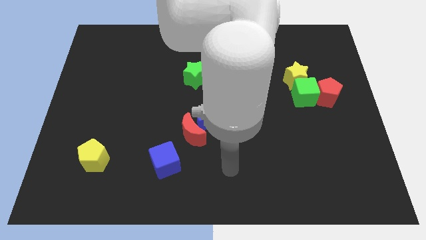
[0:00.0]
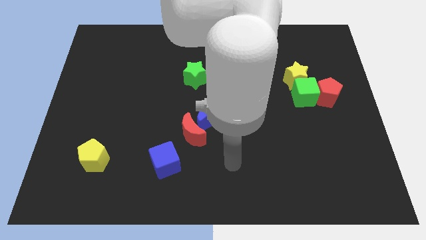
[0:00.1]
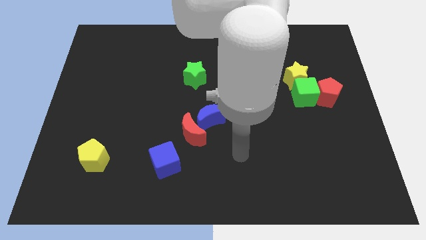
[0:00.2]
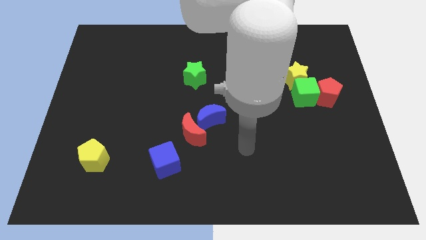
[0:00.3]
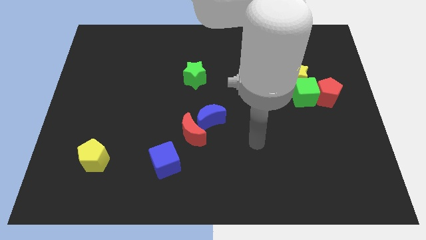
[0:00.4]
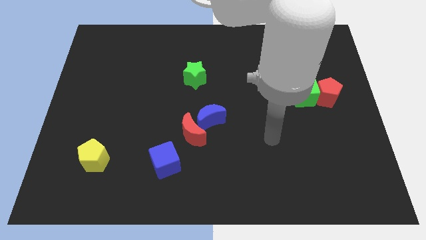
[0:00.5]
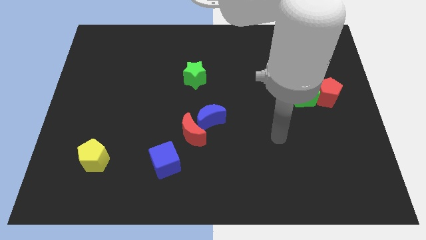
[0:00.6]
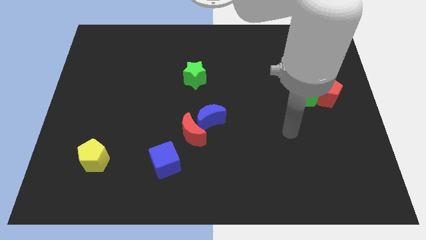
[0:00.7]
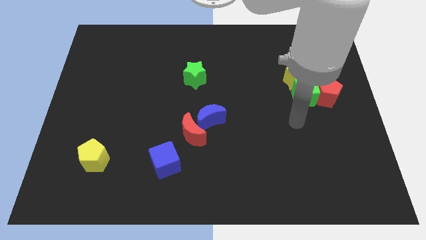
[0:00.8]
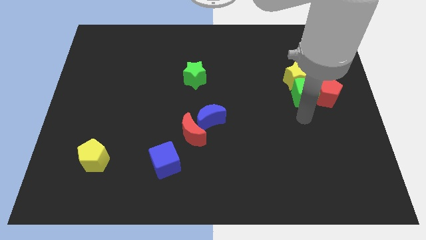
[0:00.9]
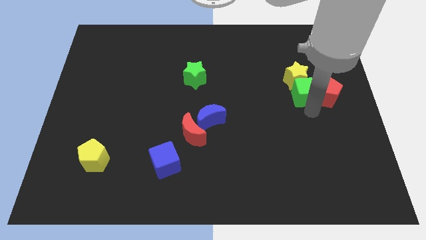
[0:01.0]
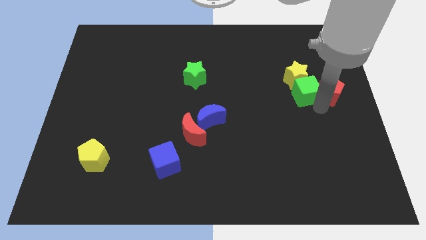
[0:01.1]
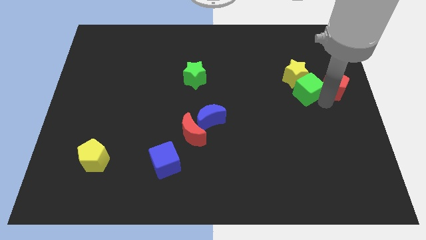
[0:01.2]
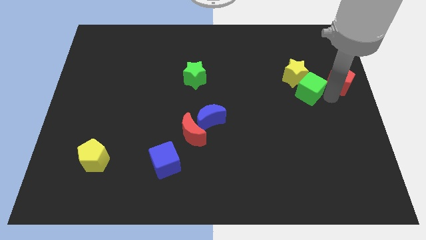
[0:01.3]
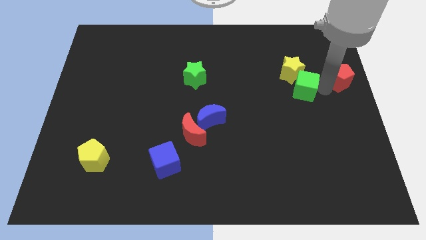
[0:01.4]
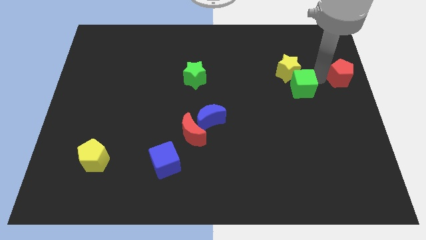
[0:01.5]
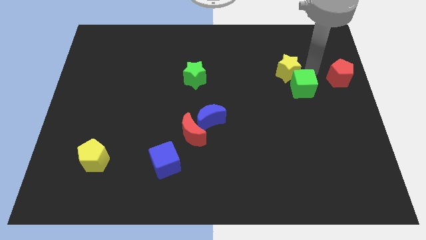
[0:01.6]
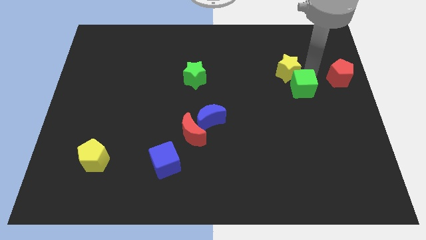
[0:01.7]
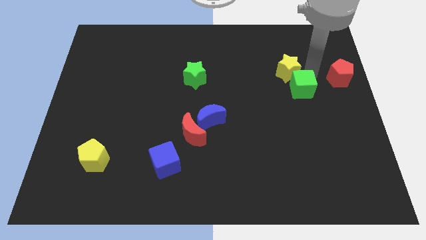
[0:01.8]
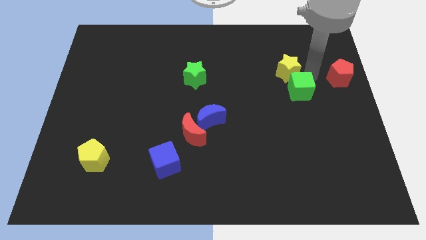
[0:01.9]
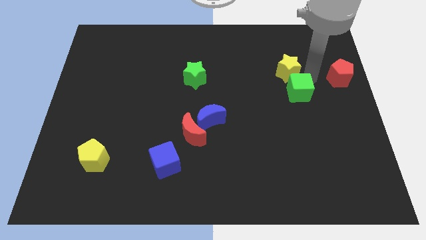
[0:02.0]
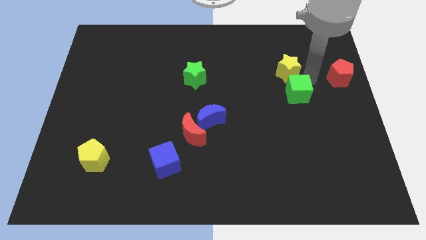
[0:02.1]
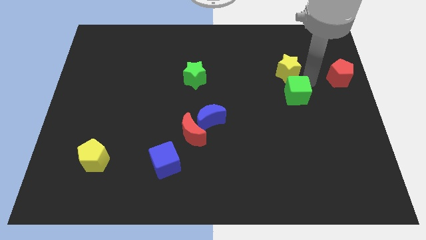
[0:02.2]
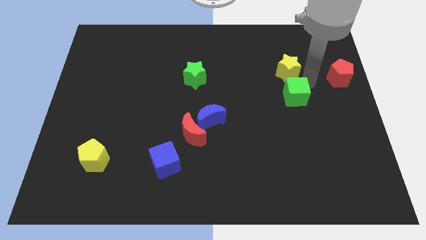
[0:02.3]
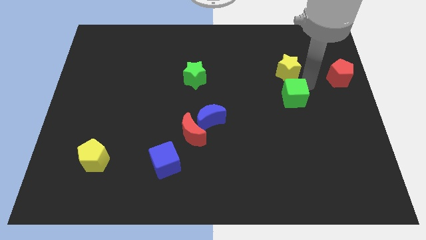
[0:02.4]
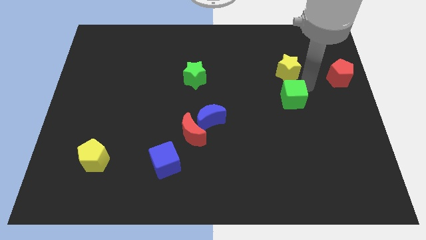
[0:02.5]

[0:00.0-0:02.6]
move the green cube away from the red pentagon and yellow star

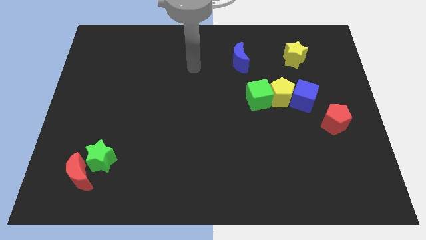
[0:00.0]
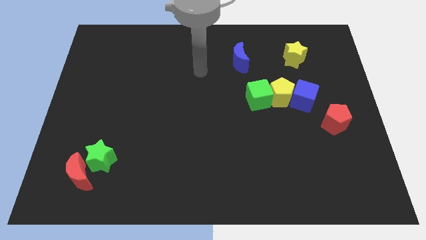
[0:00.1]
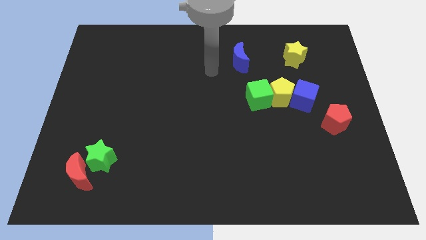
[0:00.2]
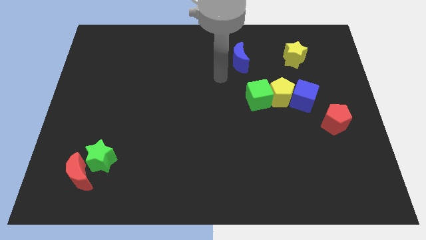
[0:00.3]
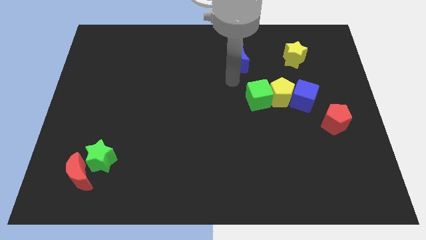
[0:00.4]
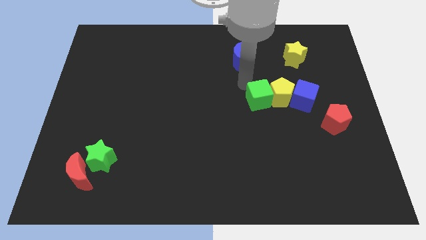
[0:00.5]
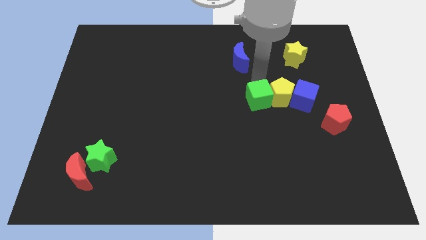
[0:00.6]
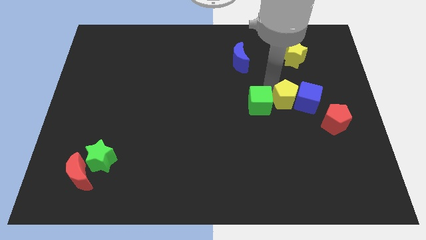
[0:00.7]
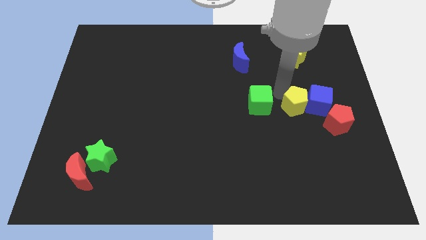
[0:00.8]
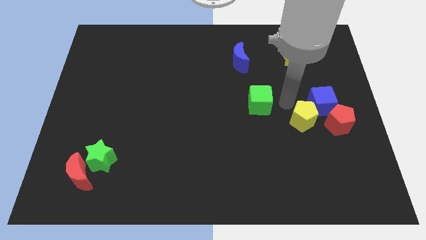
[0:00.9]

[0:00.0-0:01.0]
move the green cube away from the yellow pentagon

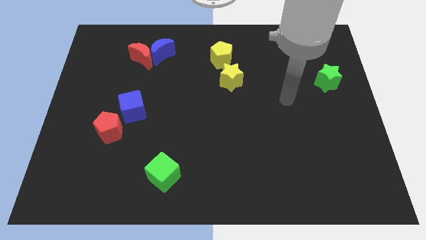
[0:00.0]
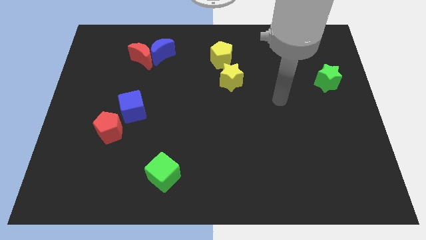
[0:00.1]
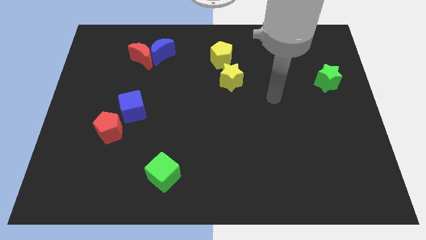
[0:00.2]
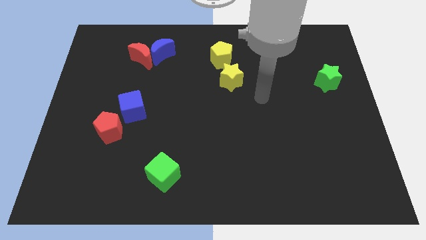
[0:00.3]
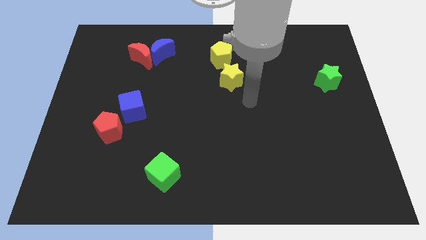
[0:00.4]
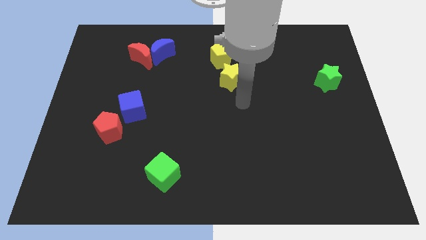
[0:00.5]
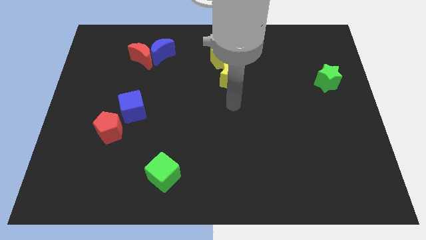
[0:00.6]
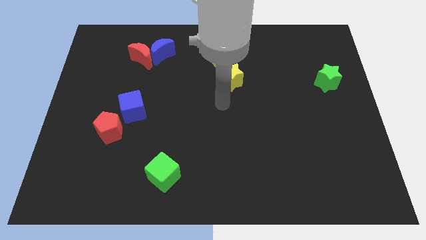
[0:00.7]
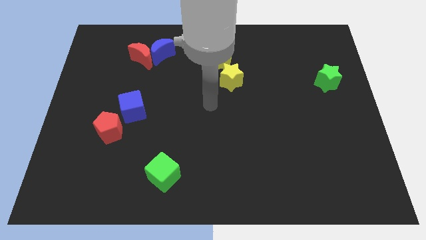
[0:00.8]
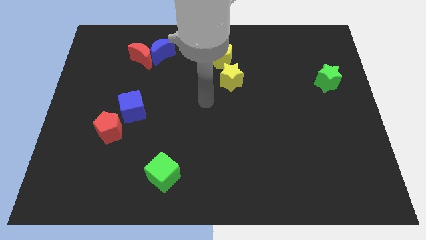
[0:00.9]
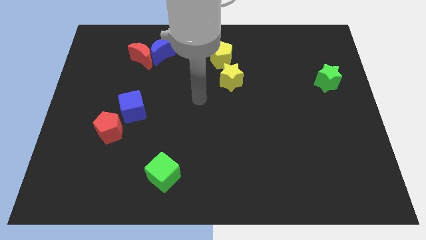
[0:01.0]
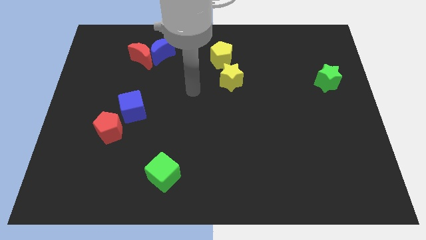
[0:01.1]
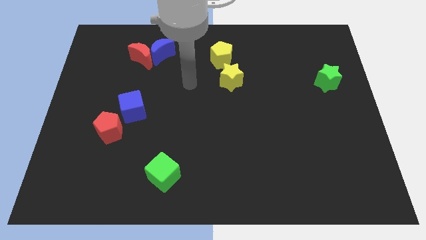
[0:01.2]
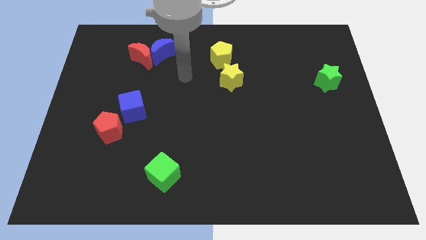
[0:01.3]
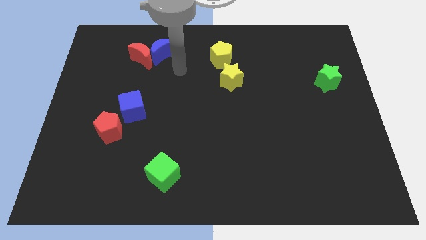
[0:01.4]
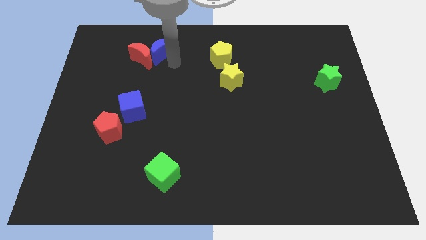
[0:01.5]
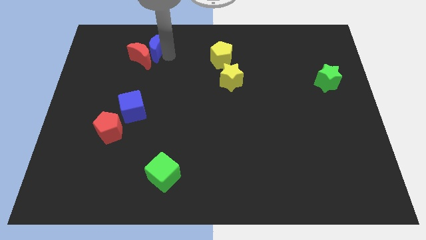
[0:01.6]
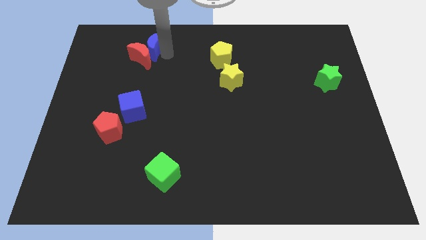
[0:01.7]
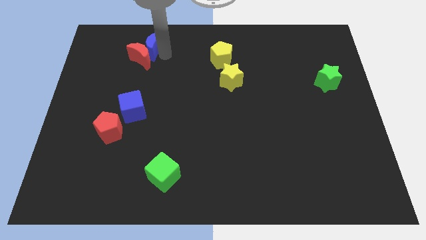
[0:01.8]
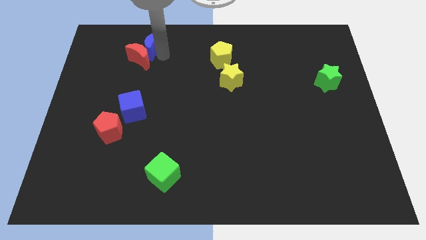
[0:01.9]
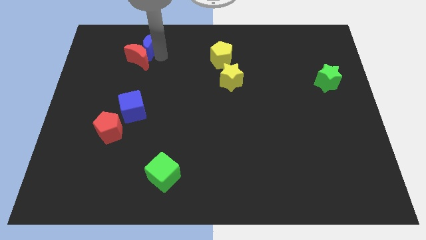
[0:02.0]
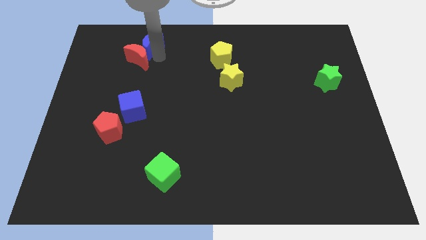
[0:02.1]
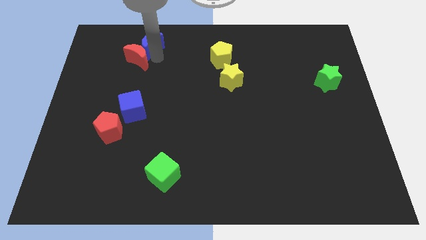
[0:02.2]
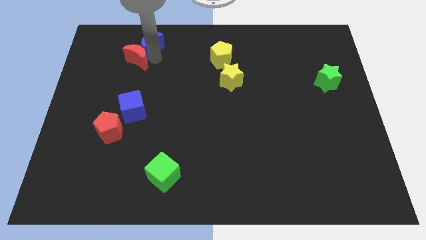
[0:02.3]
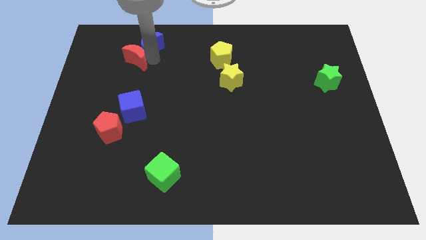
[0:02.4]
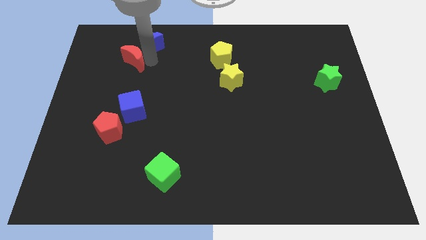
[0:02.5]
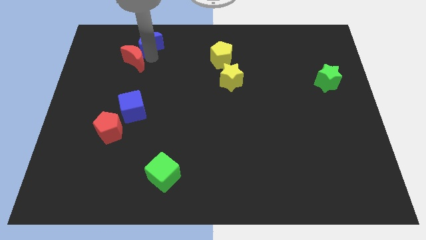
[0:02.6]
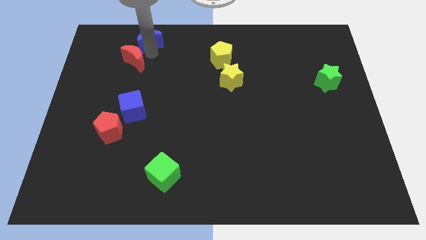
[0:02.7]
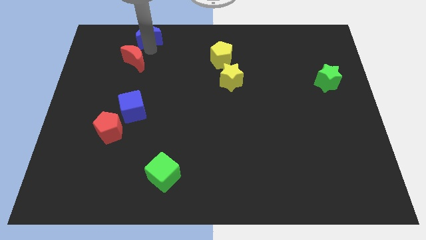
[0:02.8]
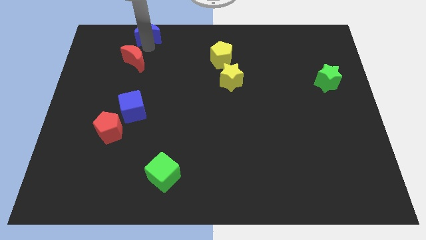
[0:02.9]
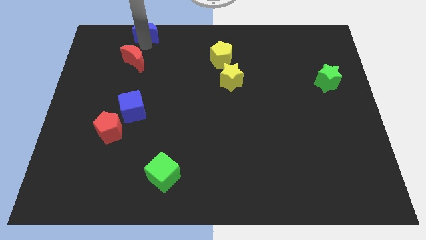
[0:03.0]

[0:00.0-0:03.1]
separate the red moon from the blue moon

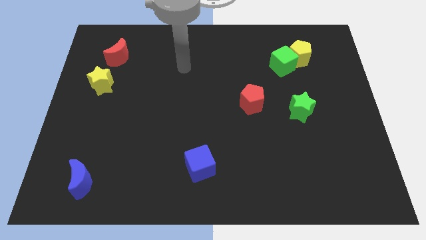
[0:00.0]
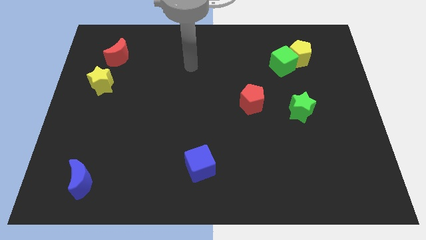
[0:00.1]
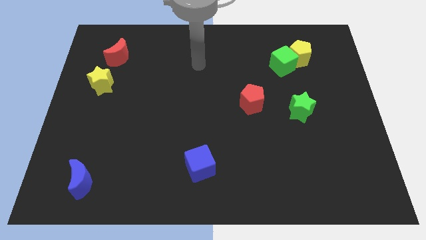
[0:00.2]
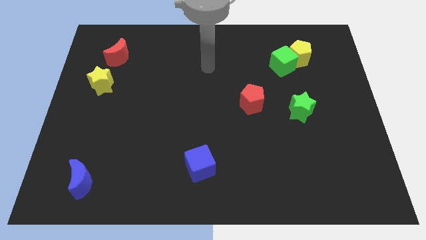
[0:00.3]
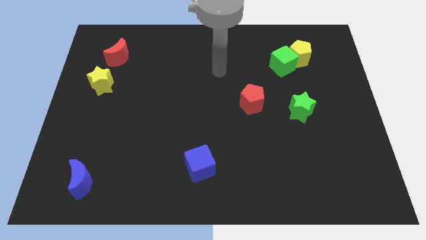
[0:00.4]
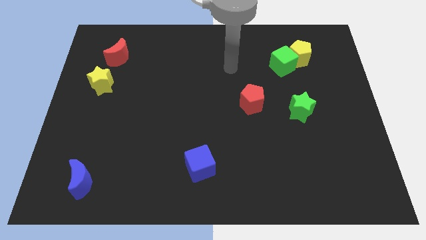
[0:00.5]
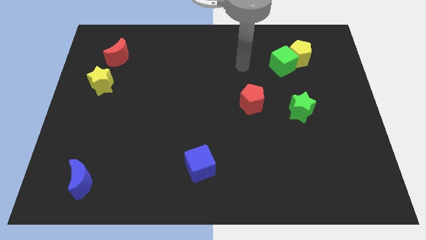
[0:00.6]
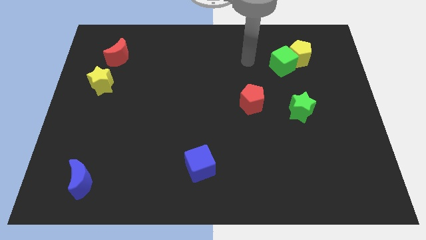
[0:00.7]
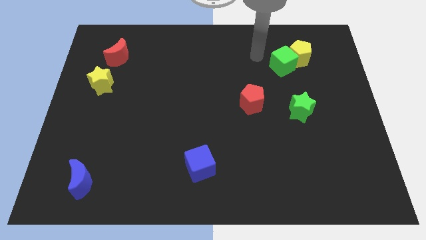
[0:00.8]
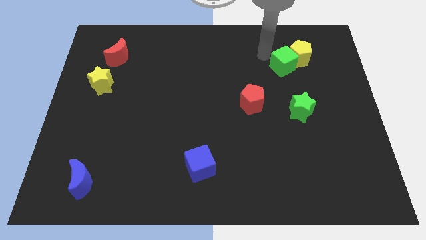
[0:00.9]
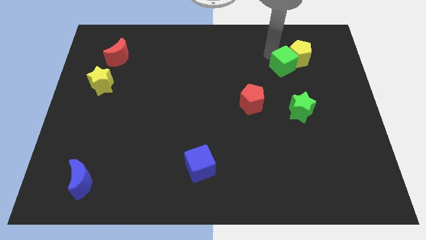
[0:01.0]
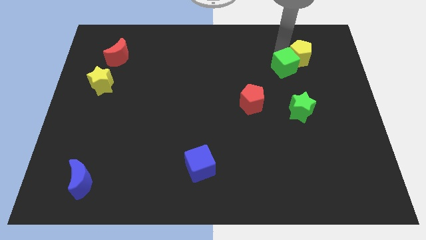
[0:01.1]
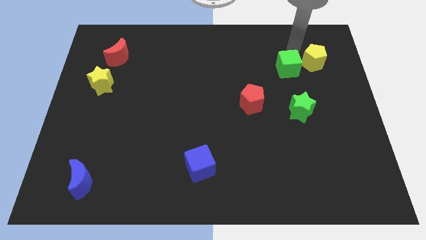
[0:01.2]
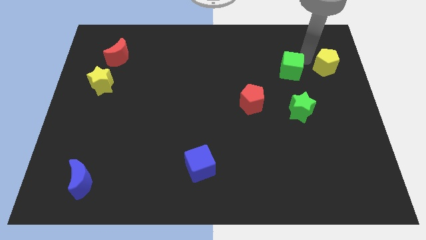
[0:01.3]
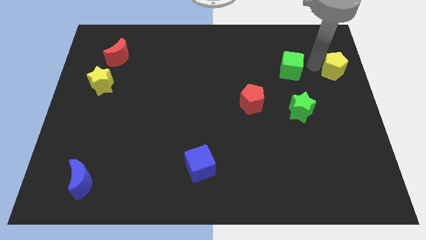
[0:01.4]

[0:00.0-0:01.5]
separate the green cube from the yellow pentagon

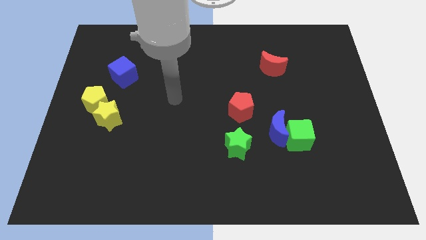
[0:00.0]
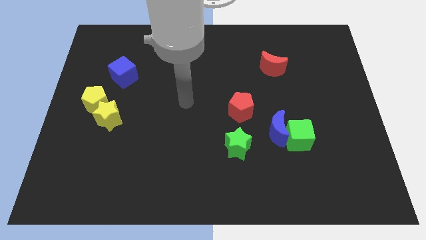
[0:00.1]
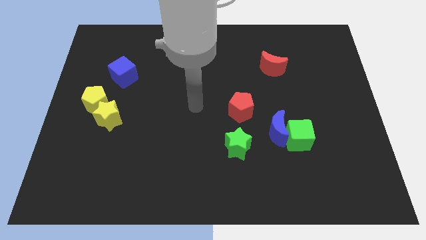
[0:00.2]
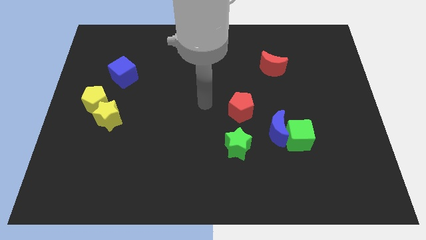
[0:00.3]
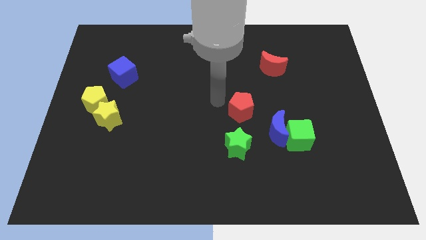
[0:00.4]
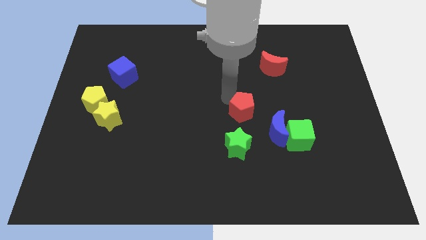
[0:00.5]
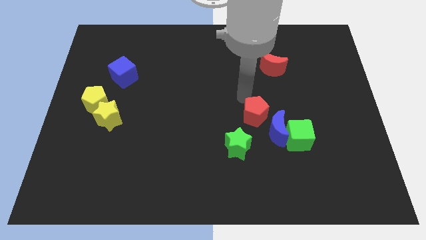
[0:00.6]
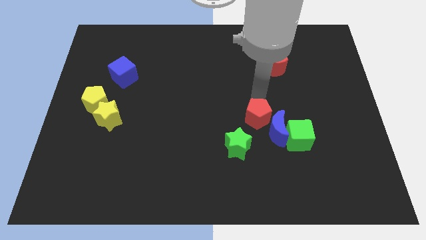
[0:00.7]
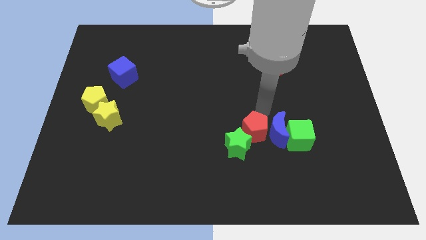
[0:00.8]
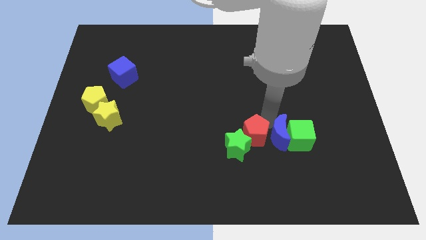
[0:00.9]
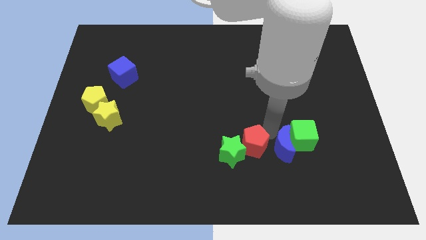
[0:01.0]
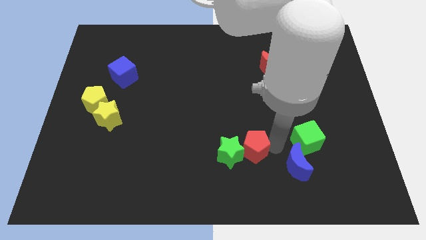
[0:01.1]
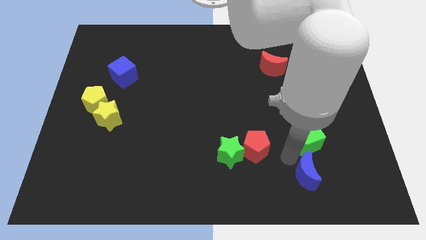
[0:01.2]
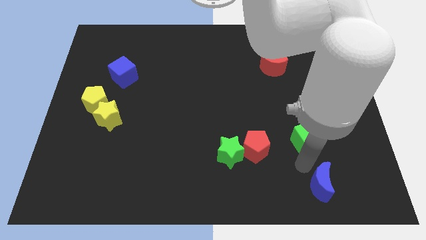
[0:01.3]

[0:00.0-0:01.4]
move the green cube away from the blue moon
